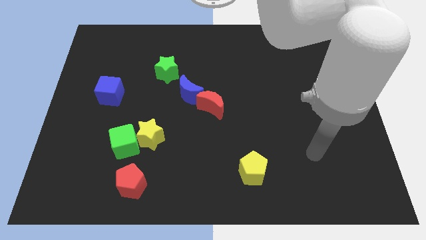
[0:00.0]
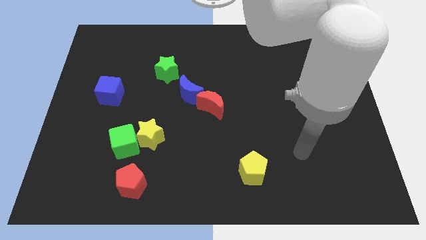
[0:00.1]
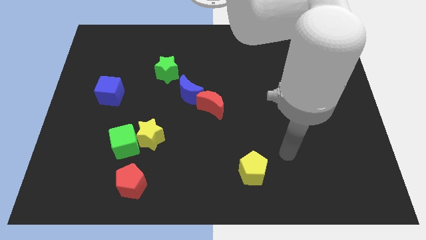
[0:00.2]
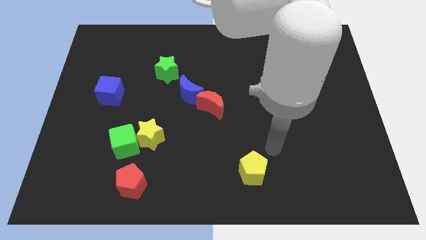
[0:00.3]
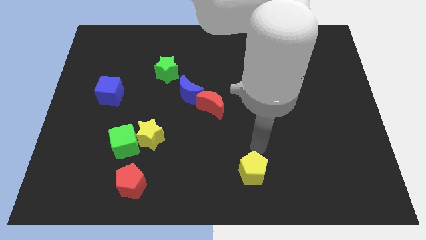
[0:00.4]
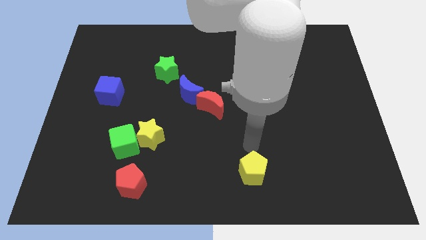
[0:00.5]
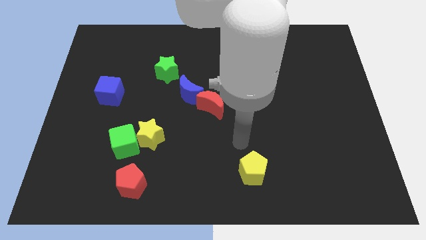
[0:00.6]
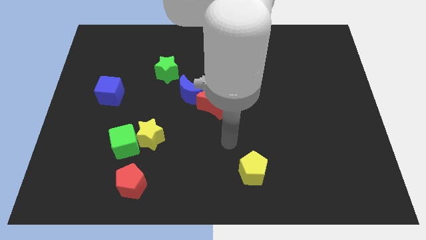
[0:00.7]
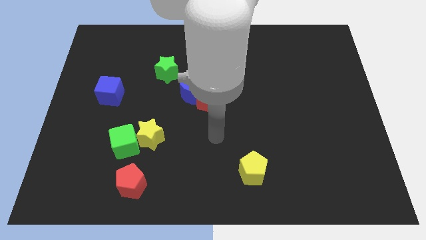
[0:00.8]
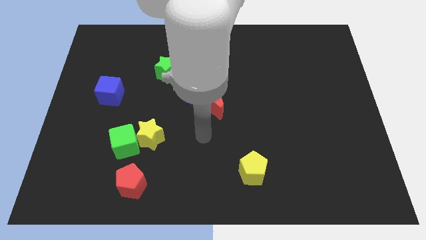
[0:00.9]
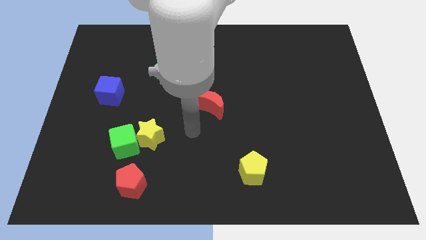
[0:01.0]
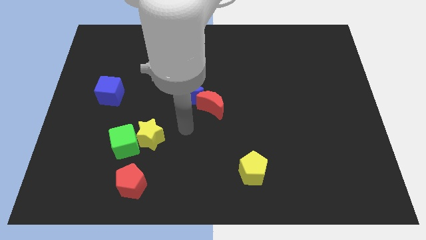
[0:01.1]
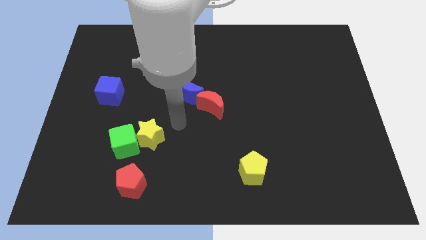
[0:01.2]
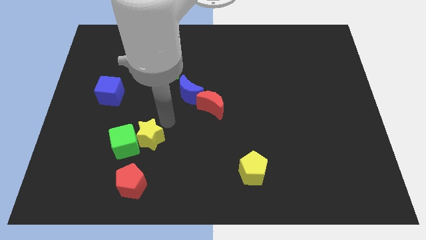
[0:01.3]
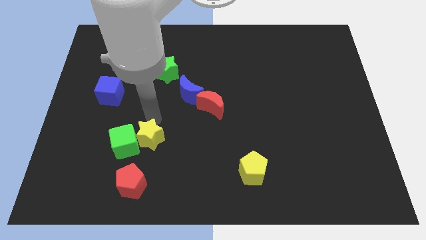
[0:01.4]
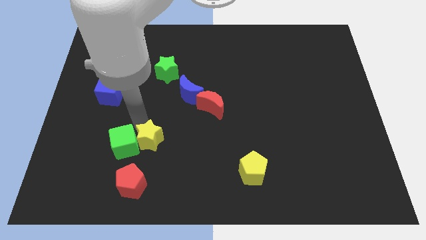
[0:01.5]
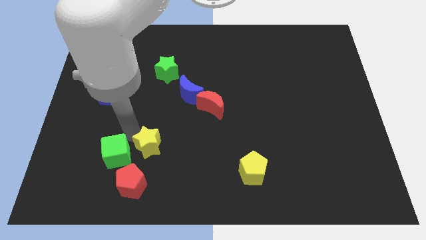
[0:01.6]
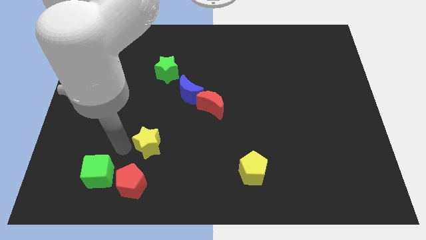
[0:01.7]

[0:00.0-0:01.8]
move the yellow star away from the green cube

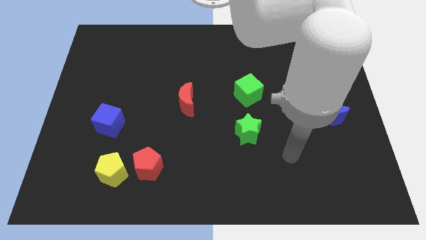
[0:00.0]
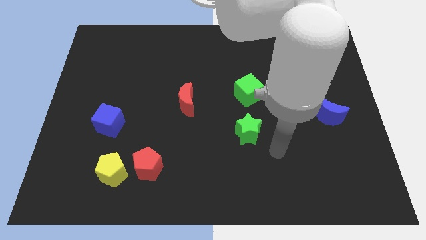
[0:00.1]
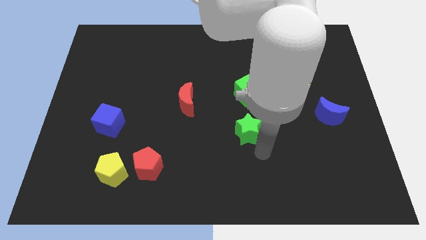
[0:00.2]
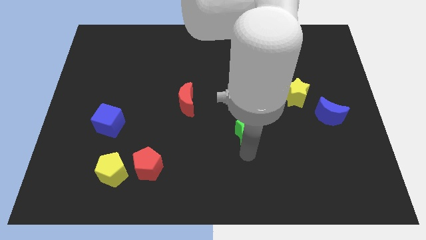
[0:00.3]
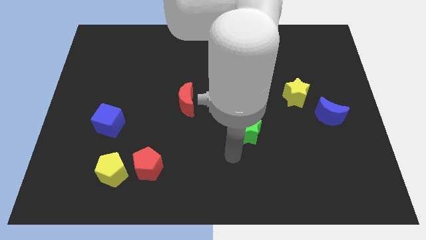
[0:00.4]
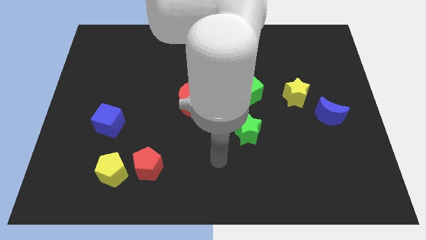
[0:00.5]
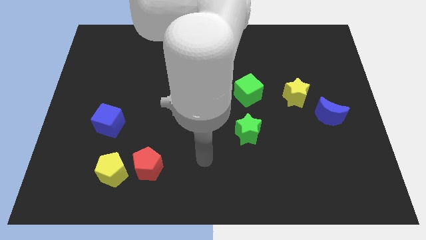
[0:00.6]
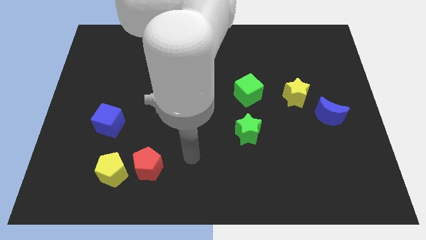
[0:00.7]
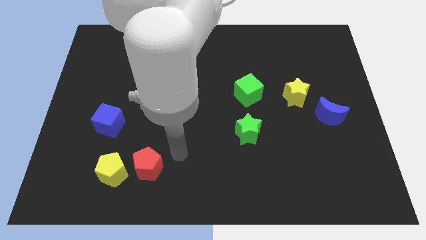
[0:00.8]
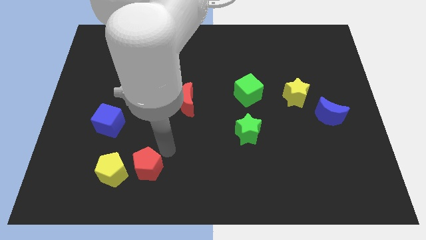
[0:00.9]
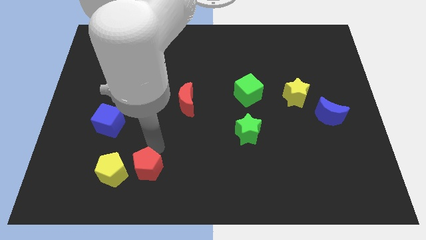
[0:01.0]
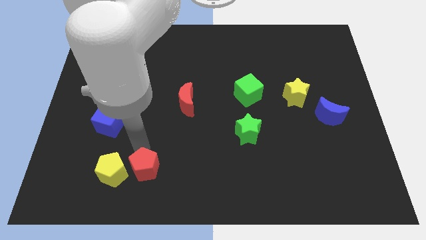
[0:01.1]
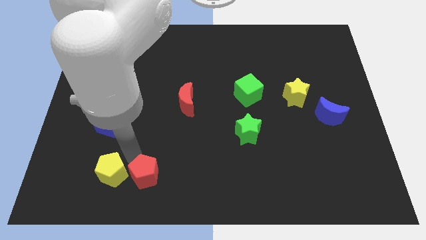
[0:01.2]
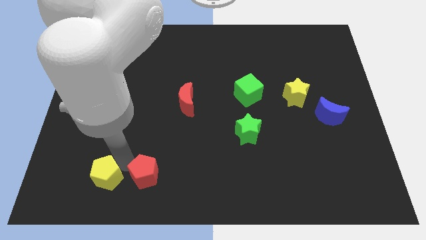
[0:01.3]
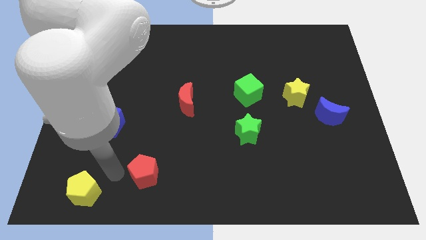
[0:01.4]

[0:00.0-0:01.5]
pull the red pentagon apart from the yellow pentagon

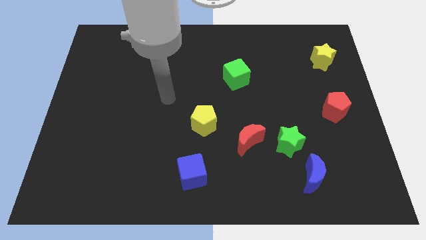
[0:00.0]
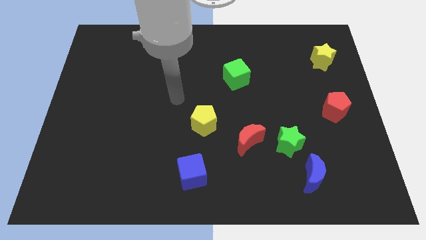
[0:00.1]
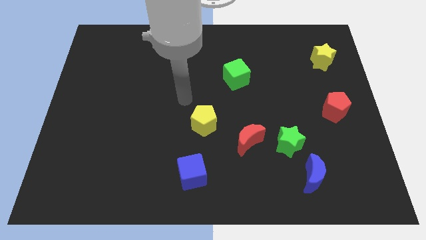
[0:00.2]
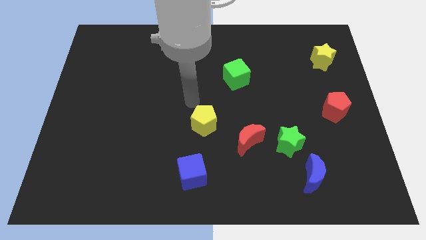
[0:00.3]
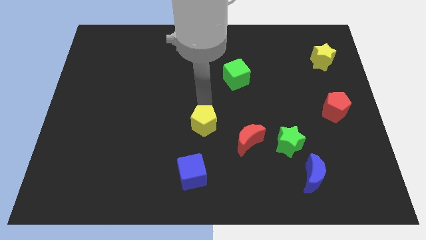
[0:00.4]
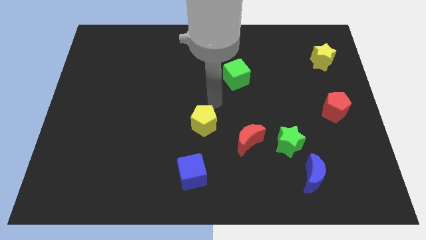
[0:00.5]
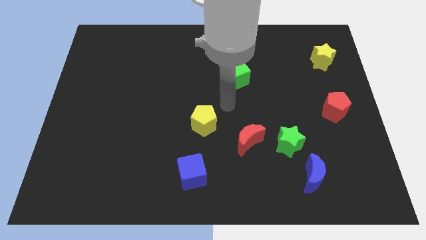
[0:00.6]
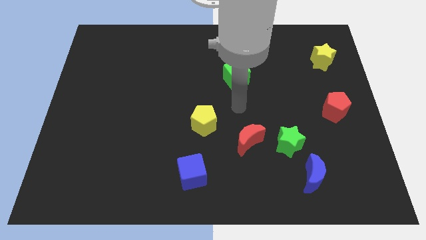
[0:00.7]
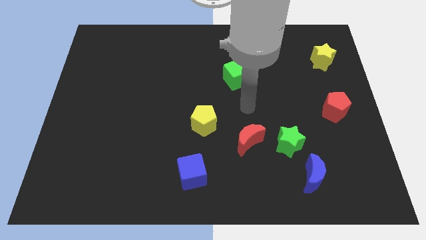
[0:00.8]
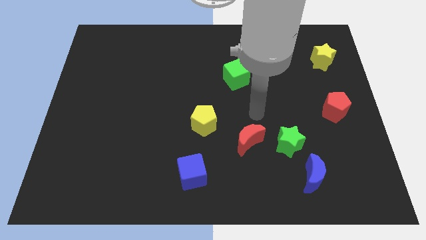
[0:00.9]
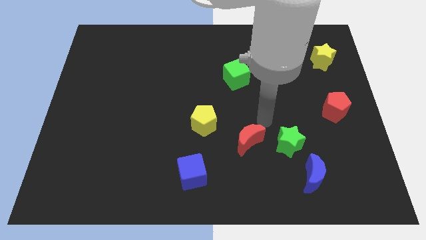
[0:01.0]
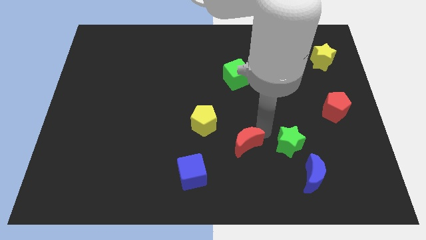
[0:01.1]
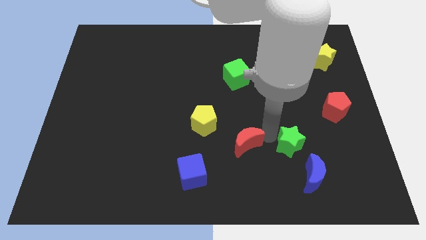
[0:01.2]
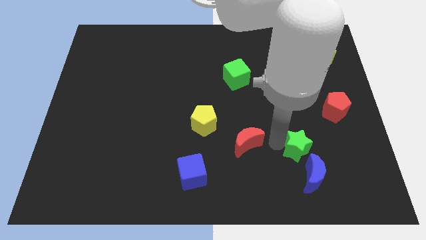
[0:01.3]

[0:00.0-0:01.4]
pull the red moon apart from the green star

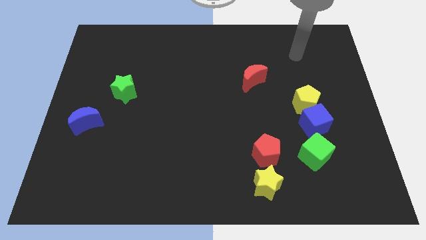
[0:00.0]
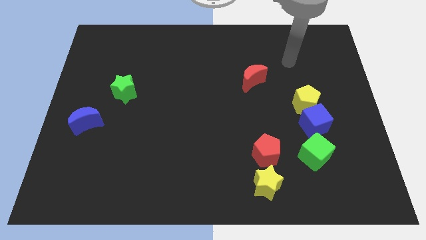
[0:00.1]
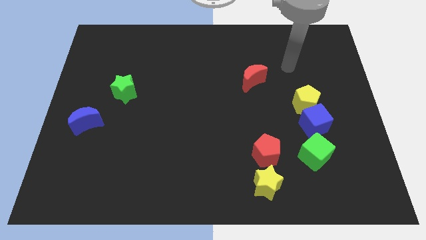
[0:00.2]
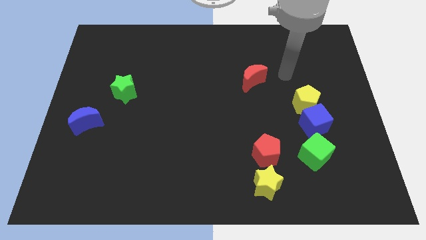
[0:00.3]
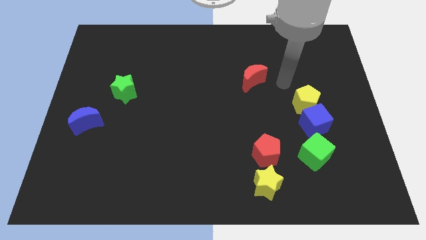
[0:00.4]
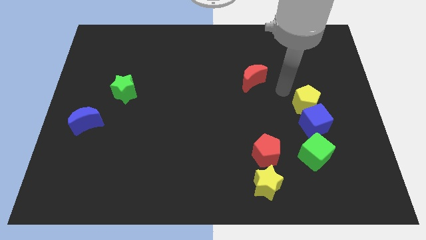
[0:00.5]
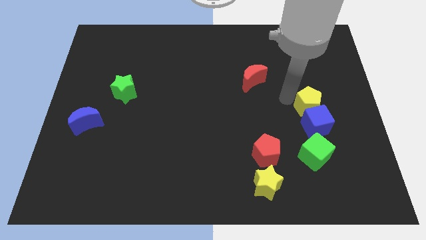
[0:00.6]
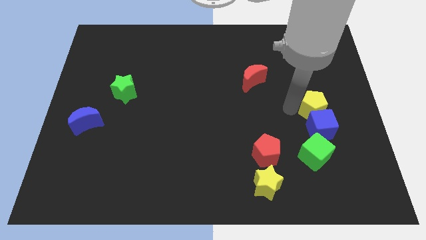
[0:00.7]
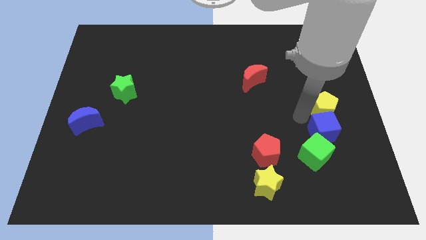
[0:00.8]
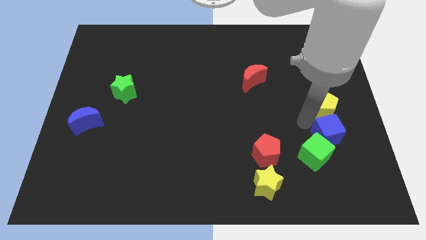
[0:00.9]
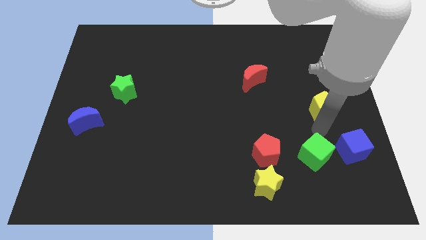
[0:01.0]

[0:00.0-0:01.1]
move the yellow pentagon away from the blue cube

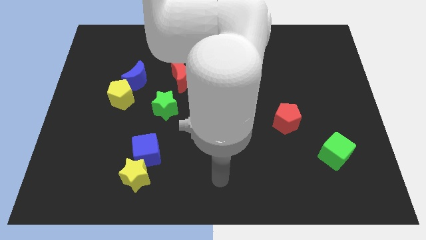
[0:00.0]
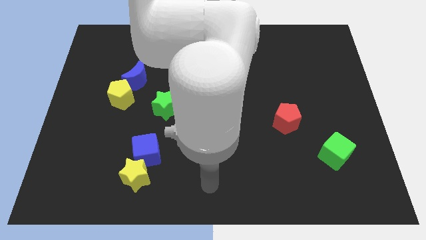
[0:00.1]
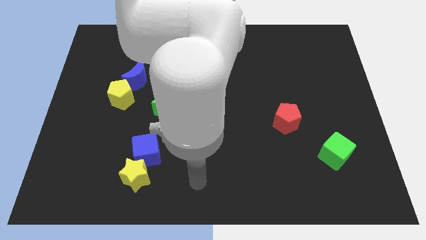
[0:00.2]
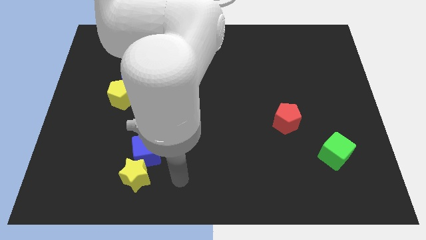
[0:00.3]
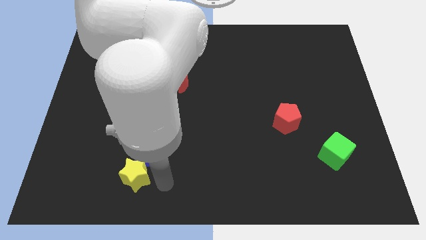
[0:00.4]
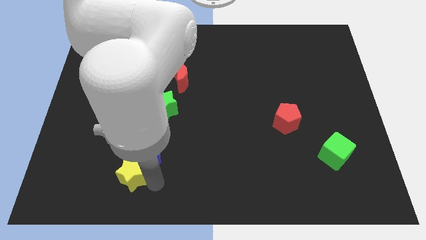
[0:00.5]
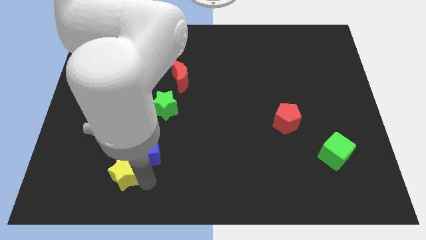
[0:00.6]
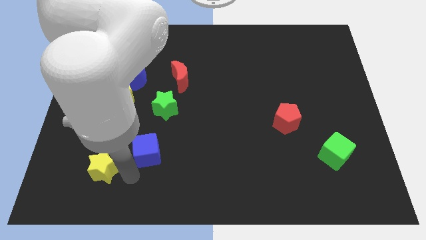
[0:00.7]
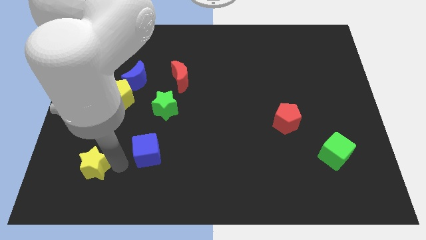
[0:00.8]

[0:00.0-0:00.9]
separate the blue cube from the yellow star

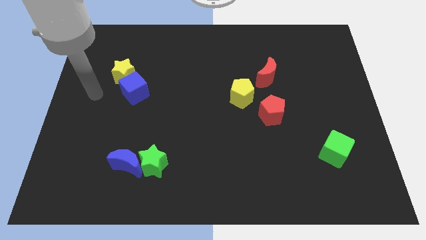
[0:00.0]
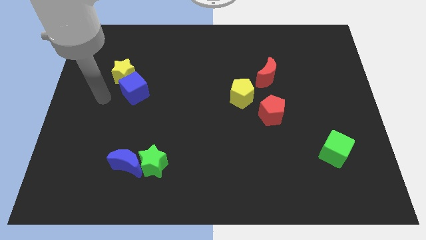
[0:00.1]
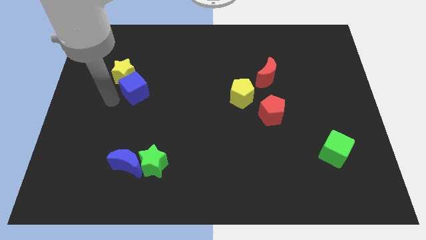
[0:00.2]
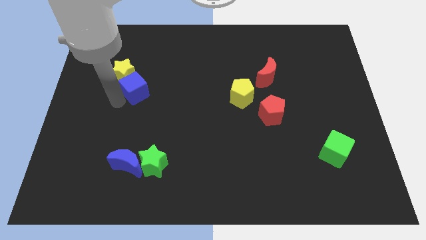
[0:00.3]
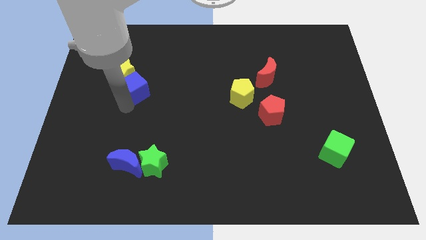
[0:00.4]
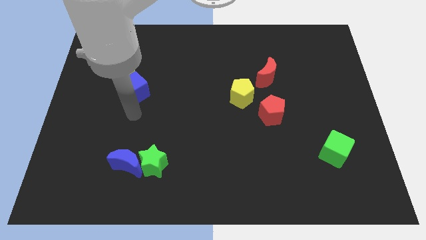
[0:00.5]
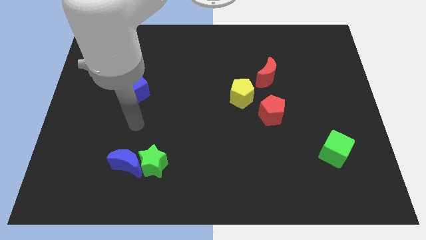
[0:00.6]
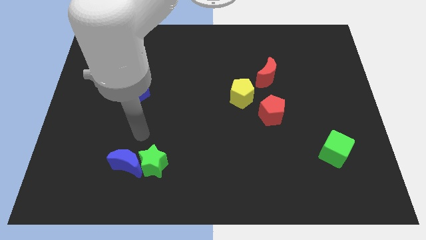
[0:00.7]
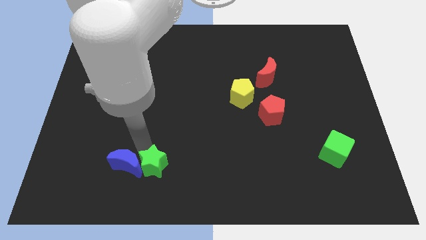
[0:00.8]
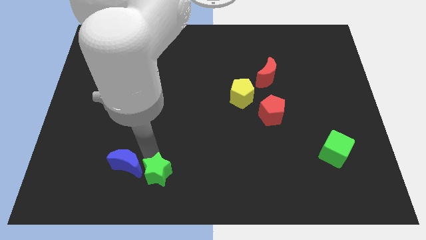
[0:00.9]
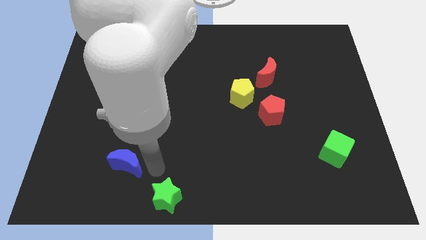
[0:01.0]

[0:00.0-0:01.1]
separate the blue moon from the green star

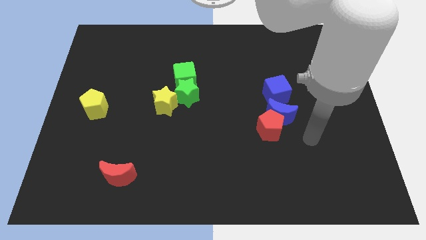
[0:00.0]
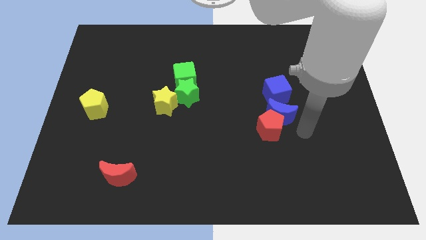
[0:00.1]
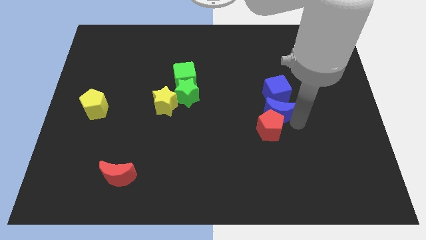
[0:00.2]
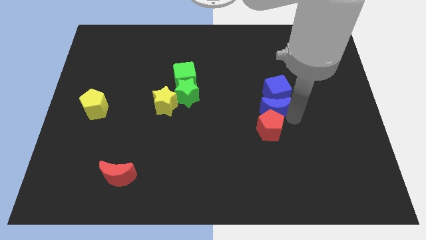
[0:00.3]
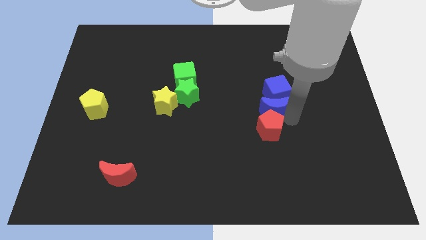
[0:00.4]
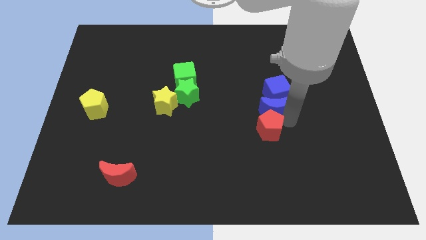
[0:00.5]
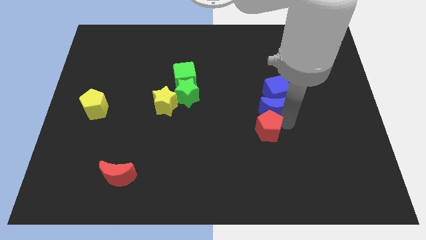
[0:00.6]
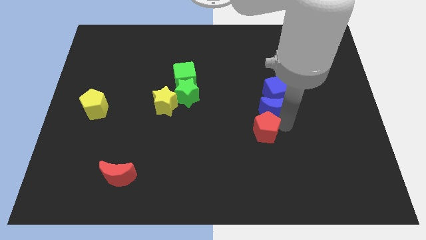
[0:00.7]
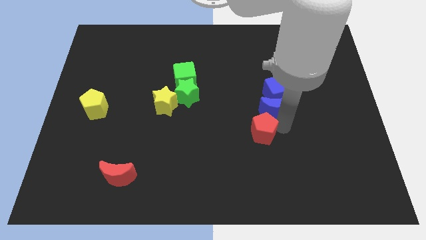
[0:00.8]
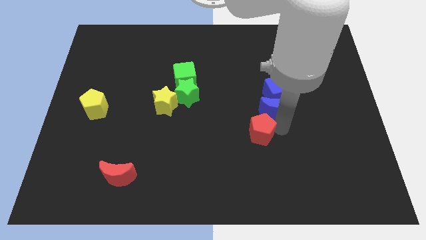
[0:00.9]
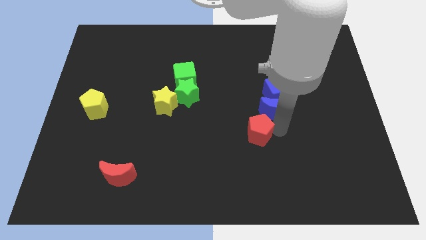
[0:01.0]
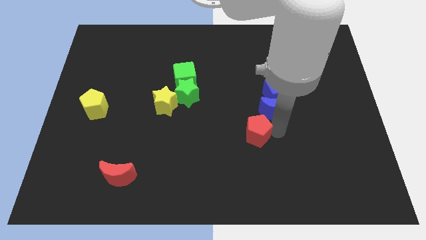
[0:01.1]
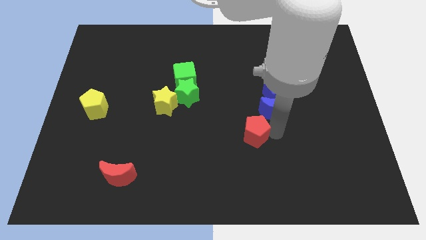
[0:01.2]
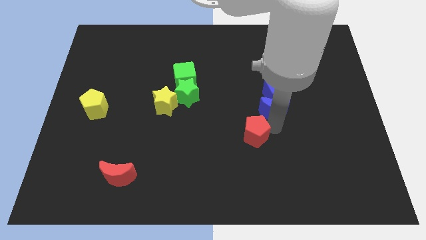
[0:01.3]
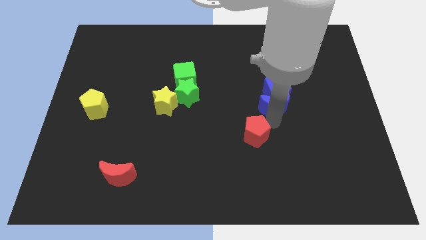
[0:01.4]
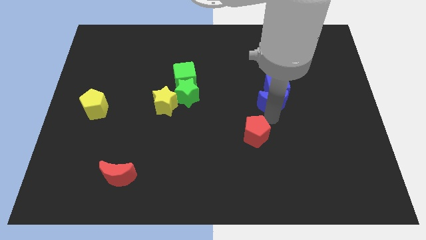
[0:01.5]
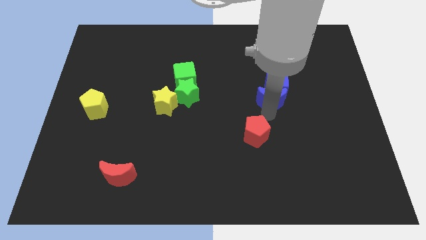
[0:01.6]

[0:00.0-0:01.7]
pull the red pentagon apart from the blue moon
